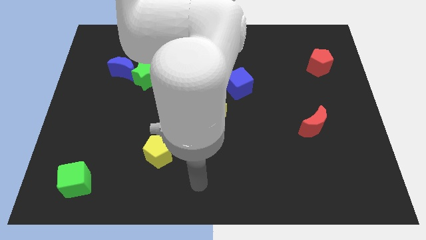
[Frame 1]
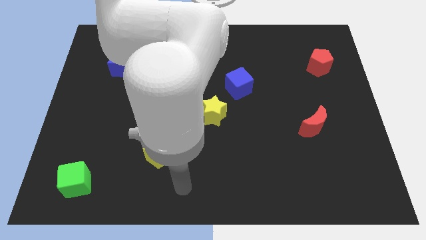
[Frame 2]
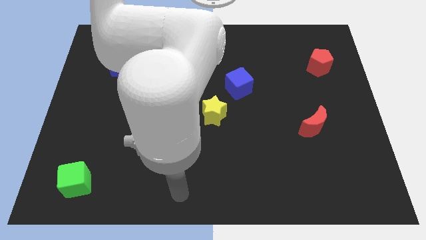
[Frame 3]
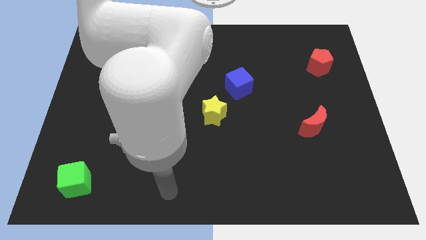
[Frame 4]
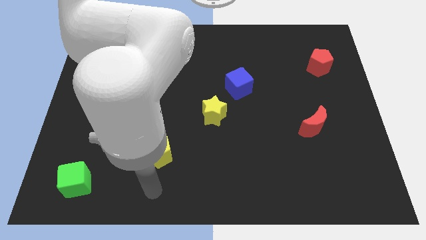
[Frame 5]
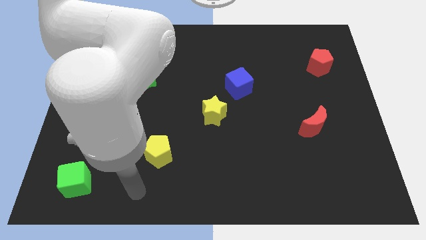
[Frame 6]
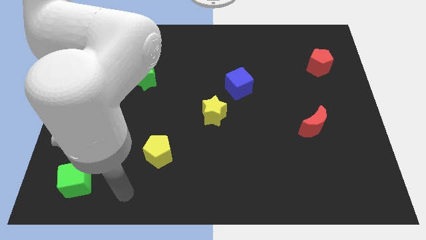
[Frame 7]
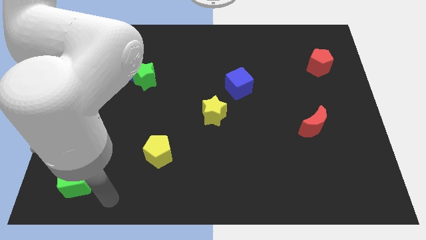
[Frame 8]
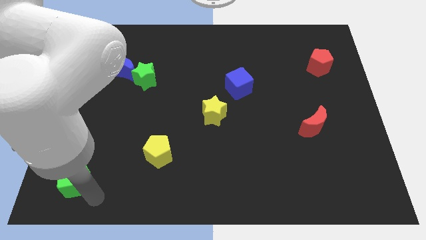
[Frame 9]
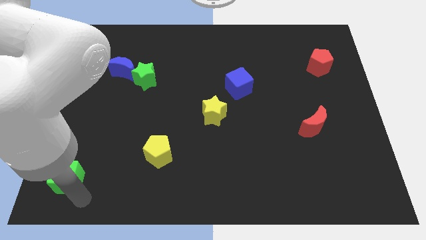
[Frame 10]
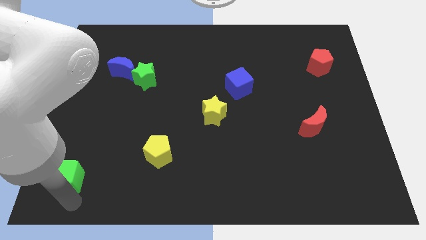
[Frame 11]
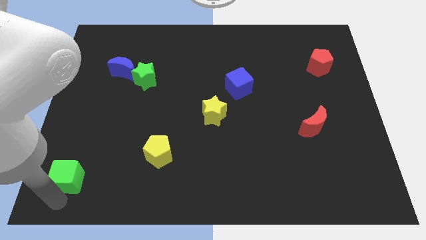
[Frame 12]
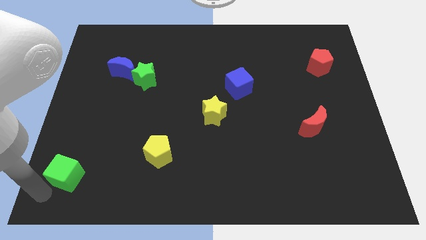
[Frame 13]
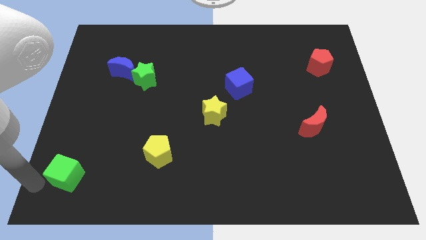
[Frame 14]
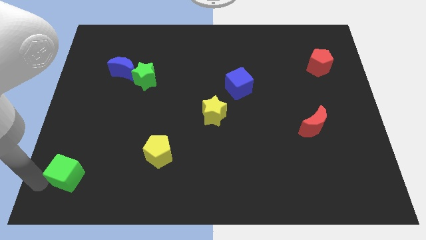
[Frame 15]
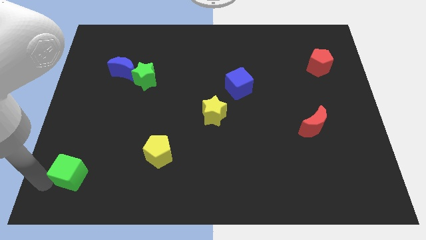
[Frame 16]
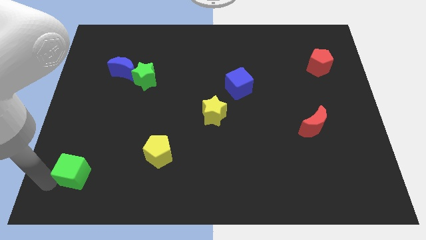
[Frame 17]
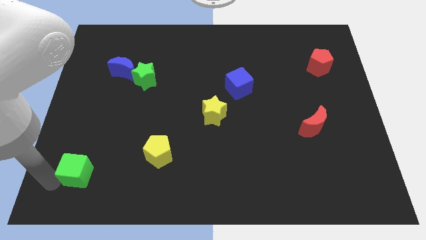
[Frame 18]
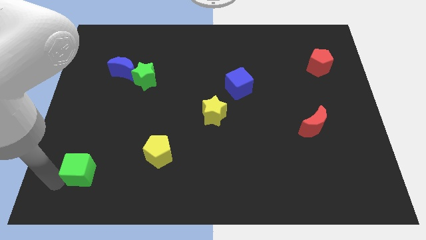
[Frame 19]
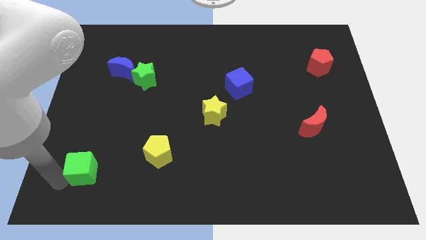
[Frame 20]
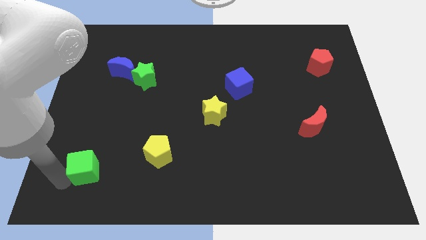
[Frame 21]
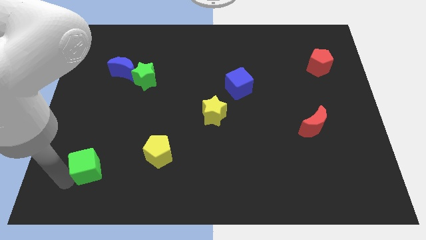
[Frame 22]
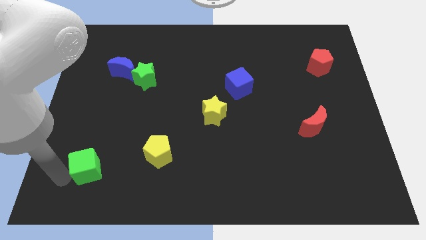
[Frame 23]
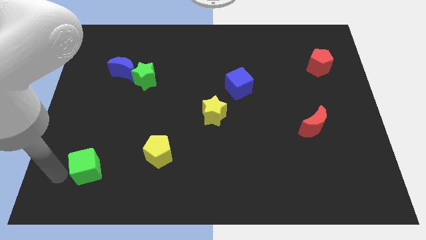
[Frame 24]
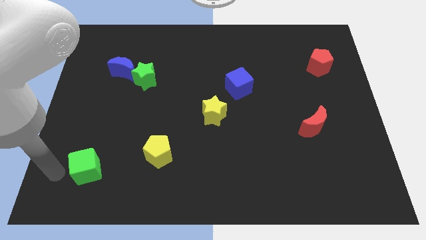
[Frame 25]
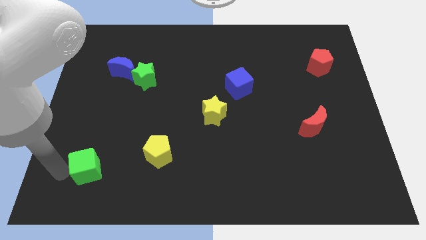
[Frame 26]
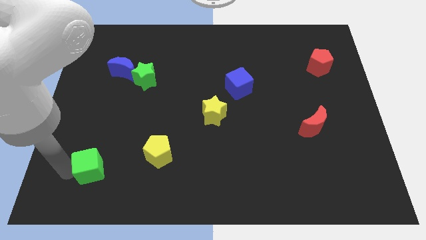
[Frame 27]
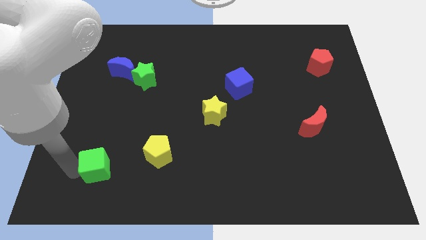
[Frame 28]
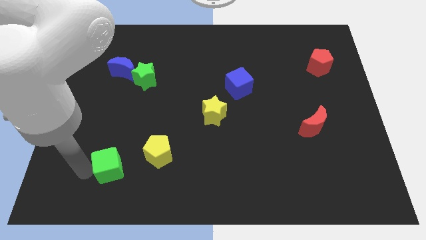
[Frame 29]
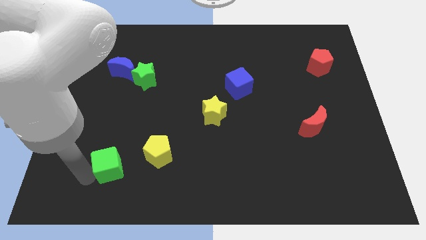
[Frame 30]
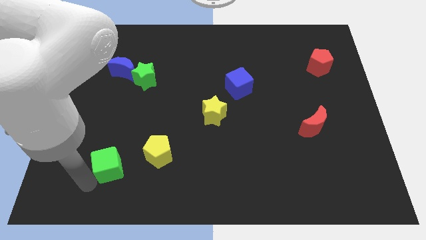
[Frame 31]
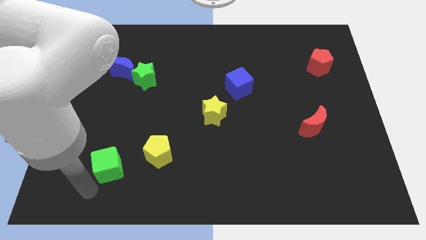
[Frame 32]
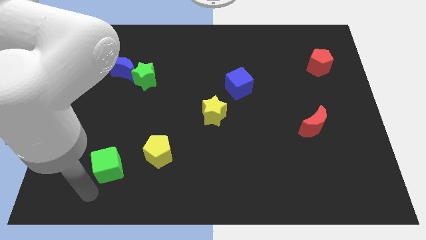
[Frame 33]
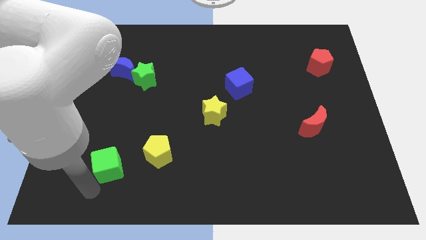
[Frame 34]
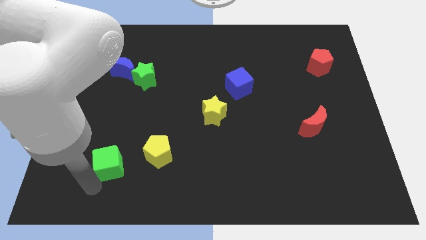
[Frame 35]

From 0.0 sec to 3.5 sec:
move the green cube a little up and then right

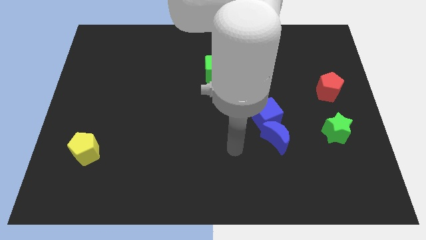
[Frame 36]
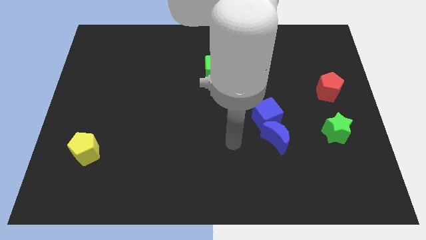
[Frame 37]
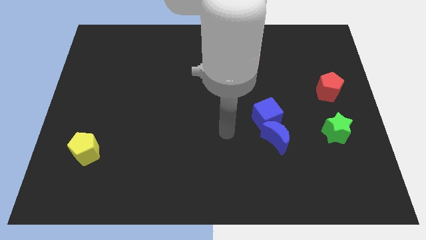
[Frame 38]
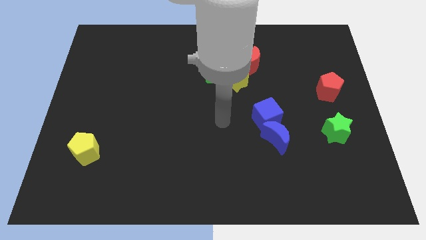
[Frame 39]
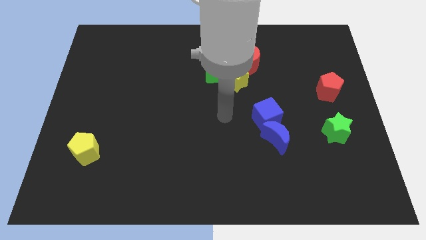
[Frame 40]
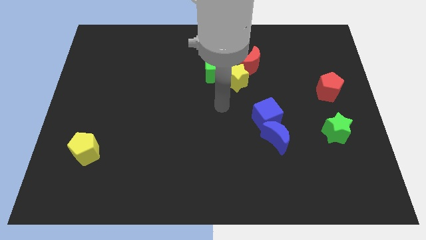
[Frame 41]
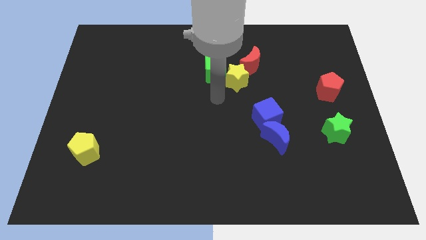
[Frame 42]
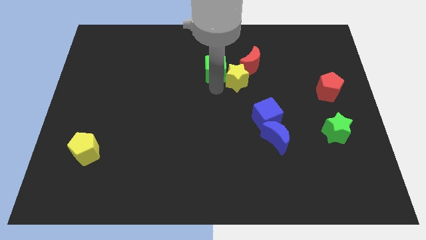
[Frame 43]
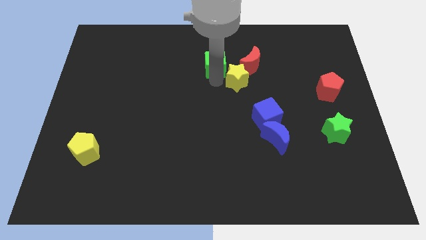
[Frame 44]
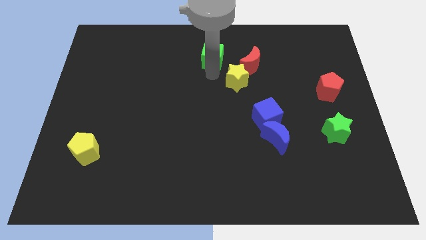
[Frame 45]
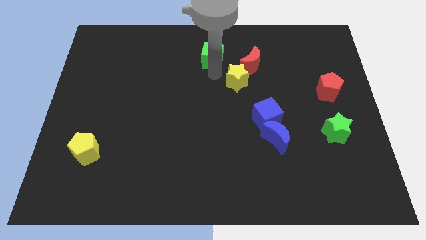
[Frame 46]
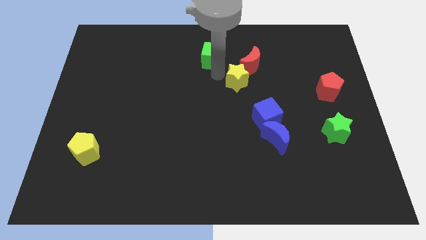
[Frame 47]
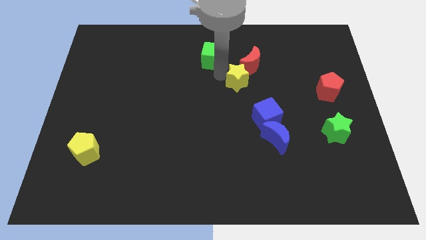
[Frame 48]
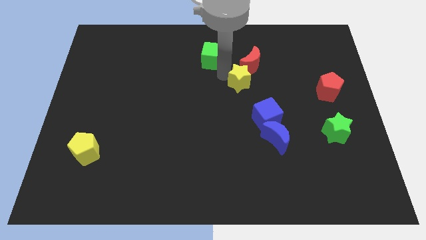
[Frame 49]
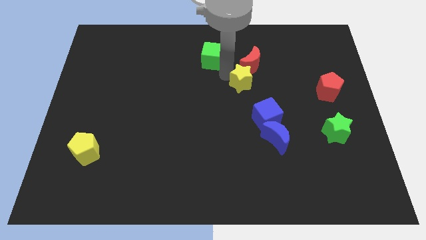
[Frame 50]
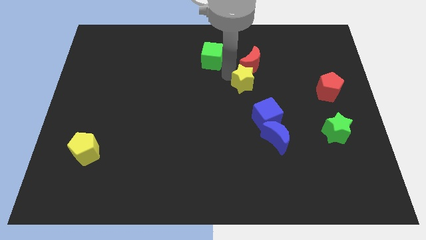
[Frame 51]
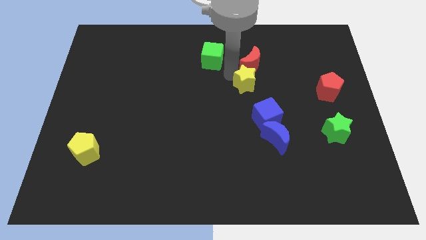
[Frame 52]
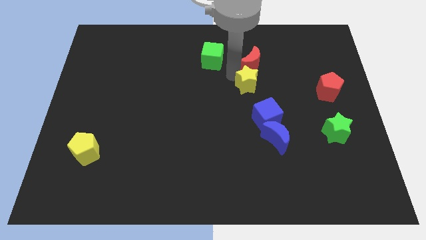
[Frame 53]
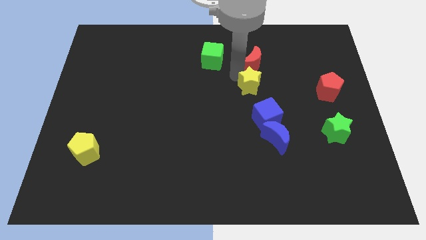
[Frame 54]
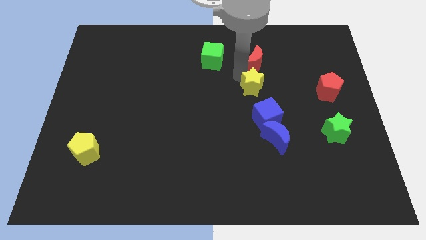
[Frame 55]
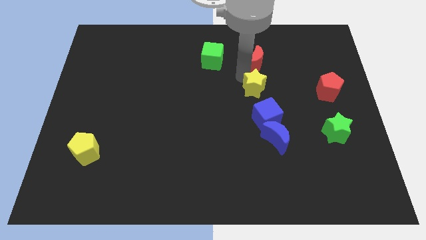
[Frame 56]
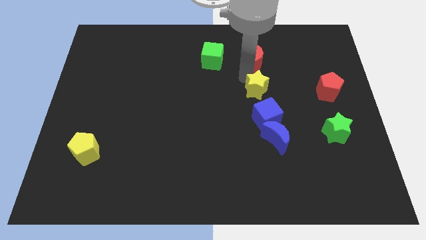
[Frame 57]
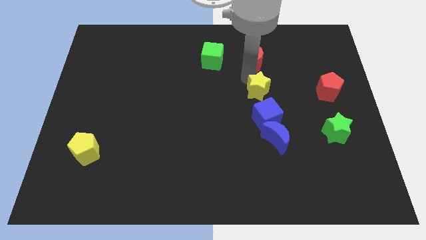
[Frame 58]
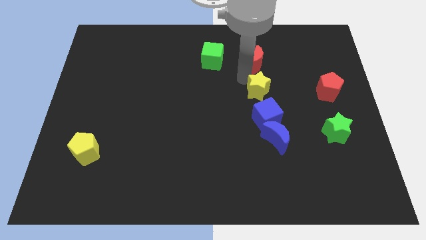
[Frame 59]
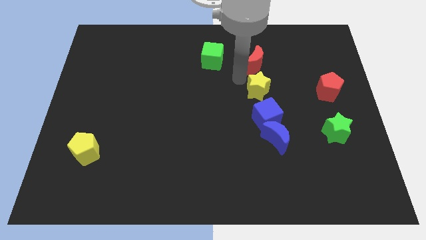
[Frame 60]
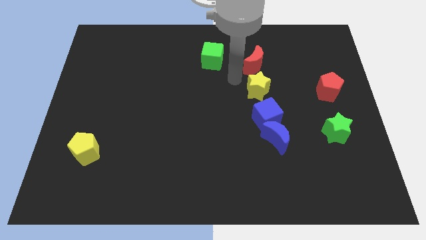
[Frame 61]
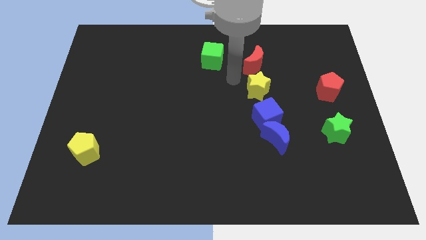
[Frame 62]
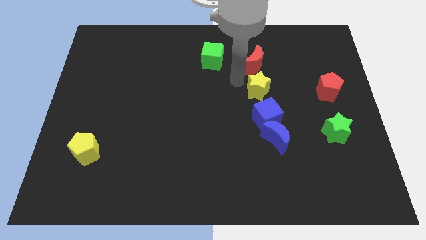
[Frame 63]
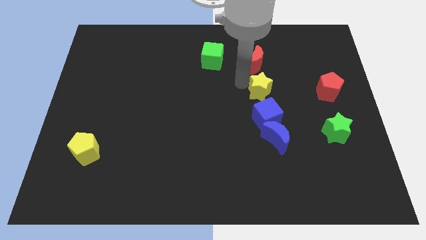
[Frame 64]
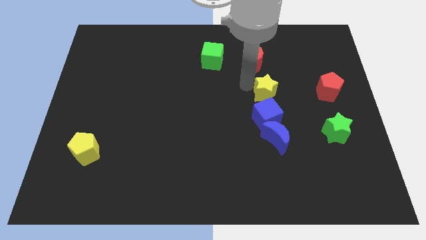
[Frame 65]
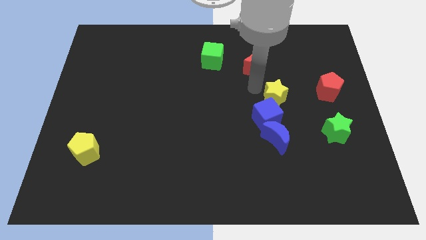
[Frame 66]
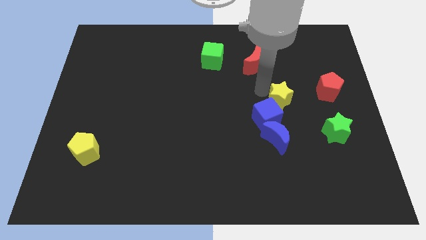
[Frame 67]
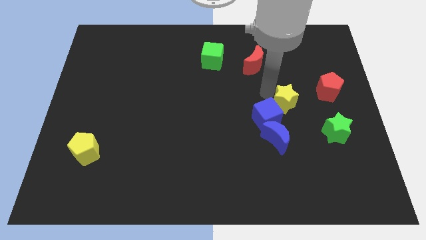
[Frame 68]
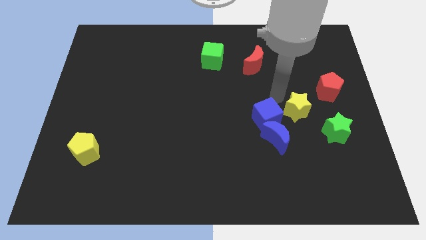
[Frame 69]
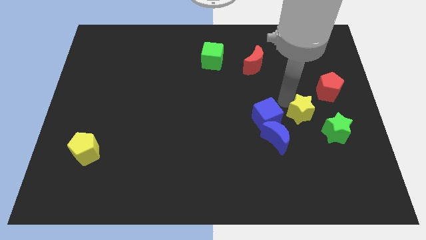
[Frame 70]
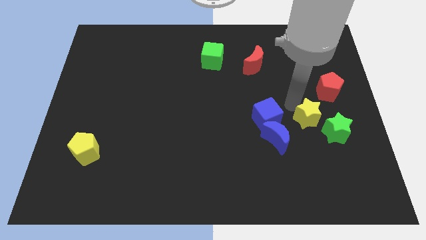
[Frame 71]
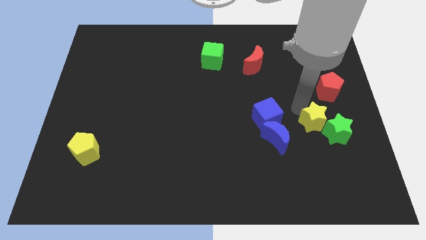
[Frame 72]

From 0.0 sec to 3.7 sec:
push the yellow star downwards and then to the right

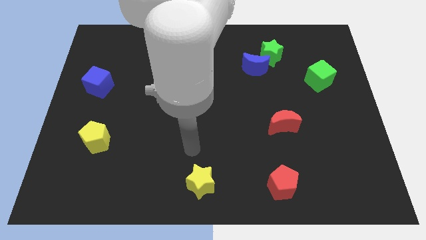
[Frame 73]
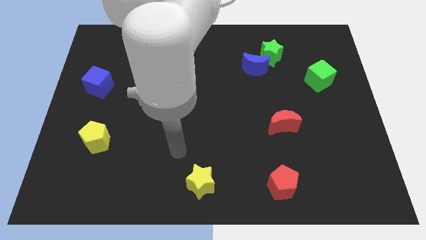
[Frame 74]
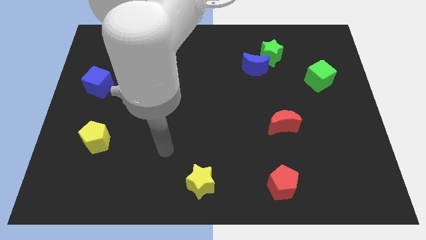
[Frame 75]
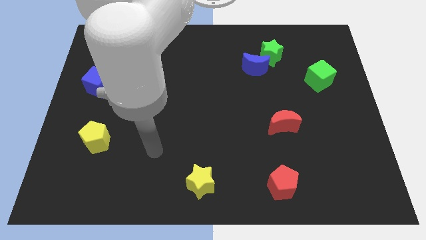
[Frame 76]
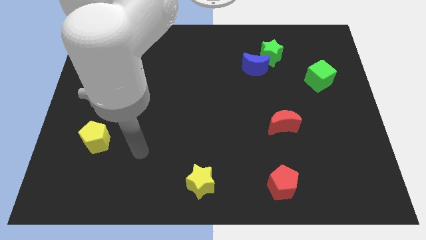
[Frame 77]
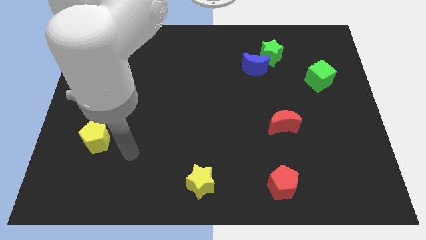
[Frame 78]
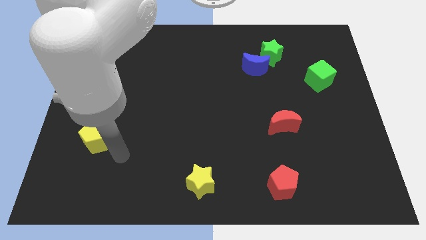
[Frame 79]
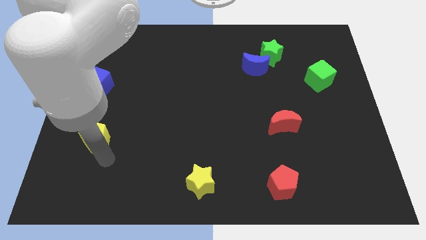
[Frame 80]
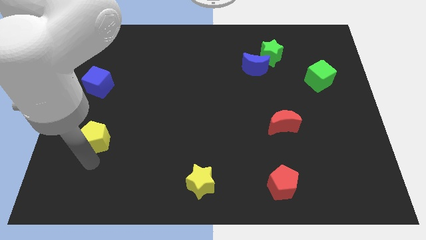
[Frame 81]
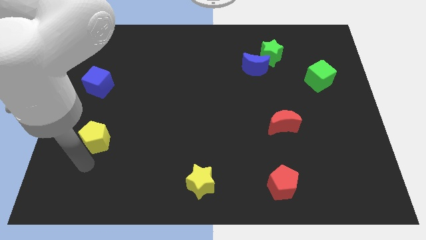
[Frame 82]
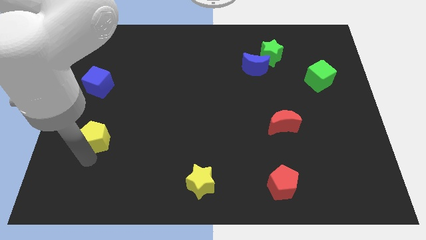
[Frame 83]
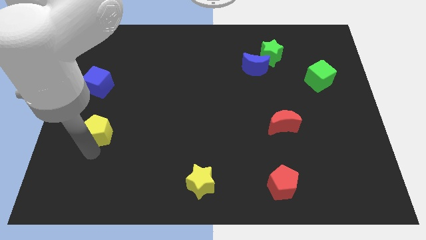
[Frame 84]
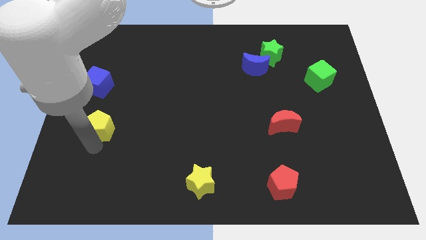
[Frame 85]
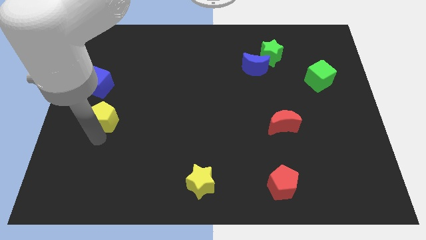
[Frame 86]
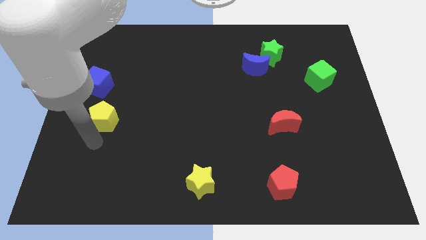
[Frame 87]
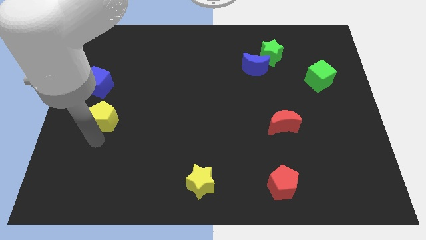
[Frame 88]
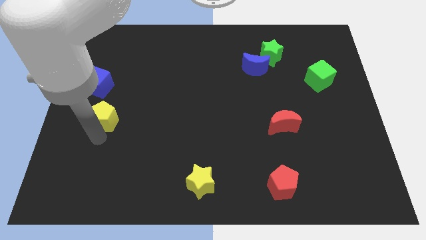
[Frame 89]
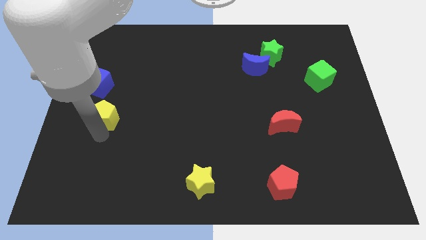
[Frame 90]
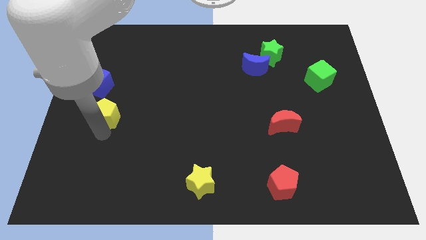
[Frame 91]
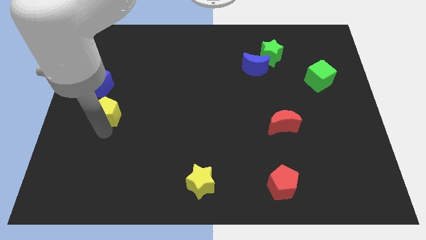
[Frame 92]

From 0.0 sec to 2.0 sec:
slide the yellow pentagon somewhat upwards
